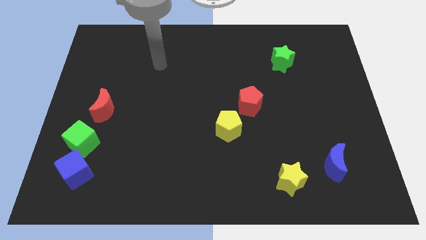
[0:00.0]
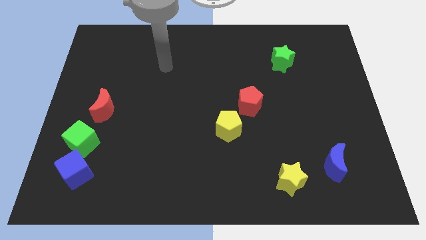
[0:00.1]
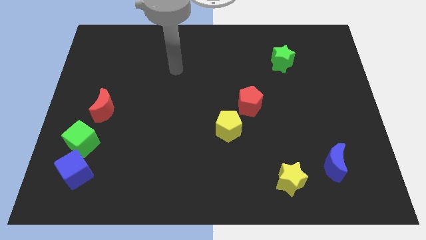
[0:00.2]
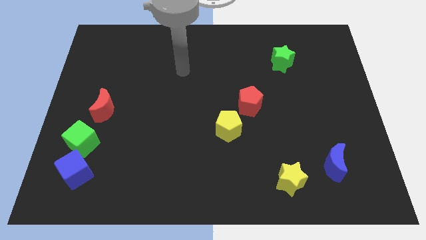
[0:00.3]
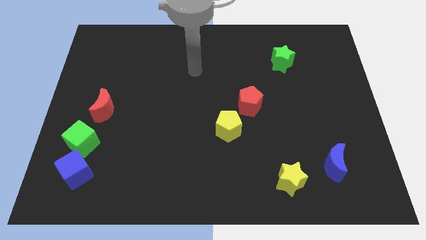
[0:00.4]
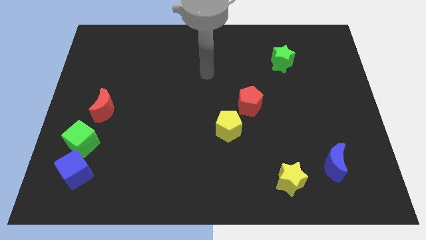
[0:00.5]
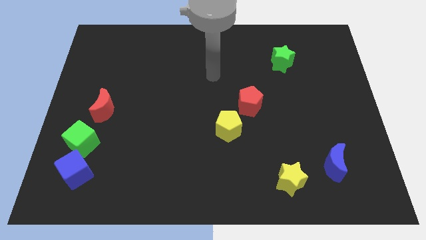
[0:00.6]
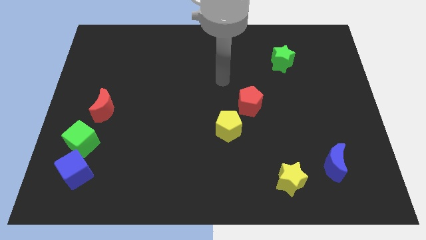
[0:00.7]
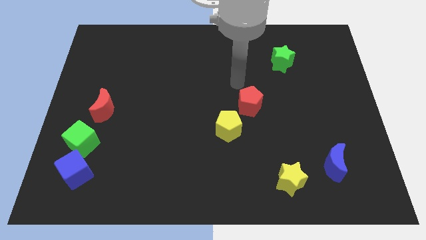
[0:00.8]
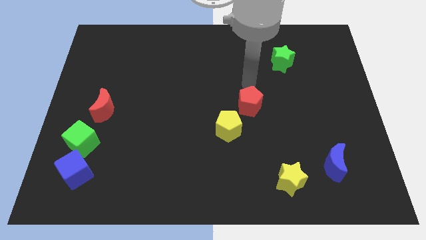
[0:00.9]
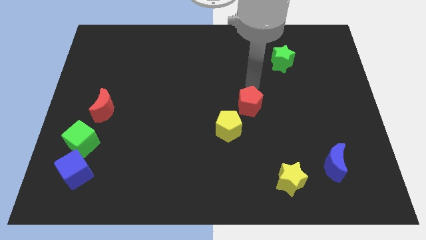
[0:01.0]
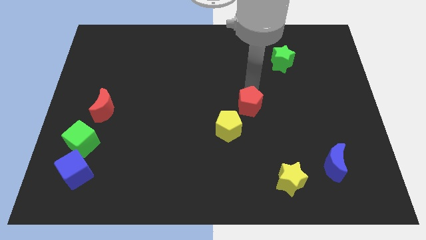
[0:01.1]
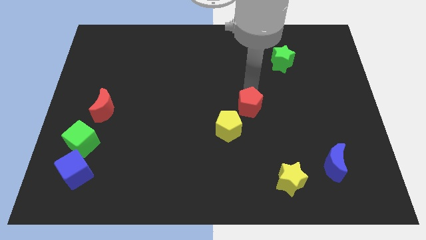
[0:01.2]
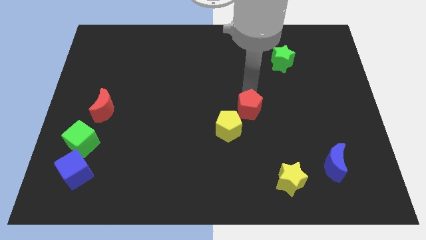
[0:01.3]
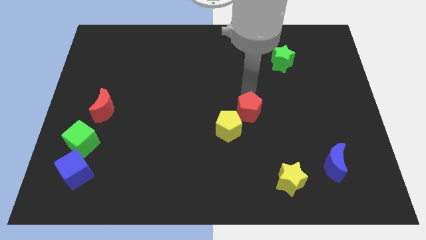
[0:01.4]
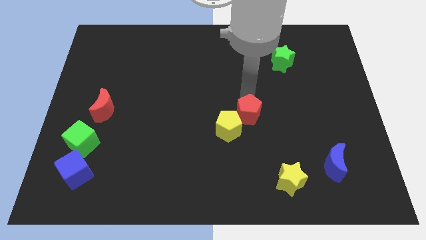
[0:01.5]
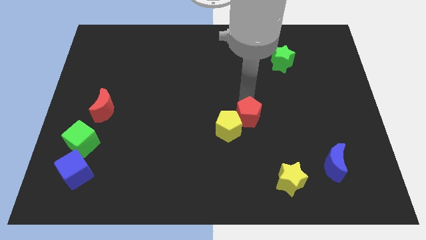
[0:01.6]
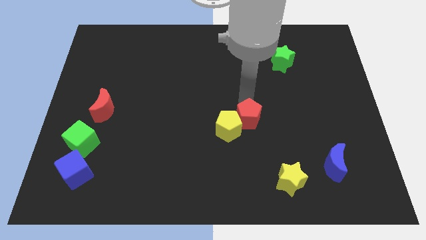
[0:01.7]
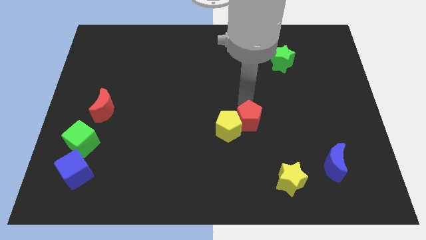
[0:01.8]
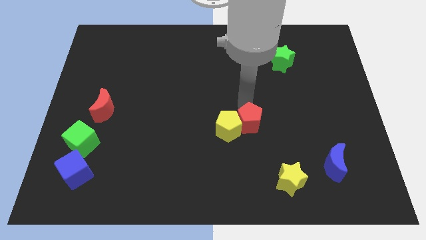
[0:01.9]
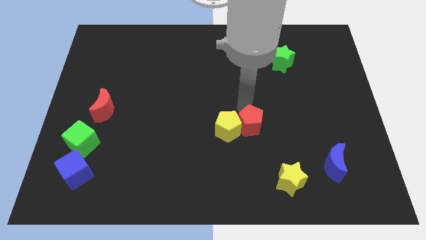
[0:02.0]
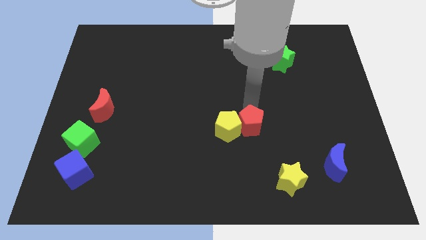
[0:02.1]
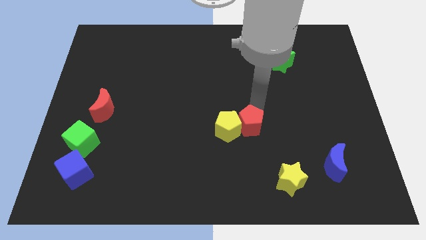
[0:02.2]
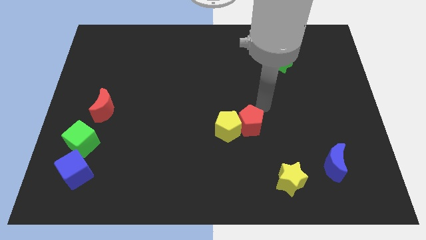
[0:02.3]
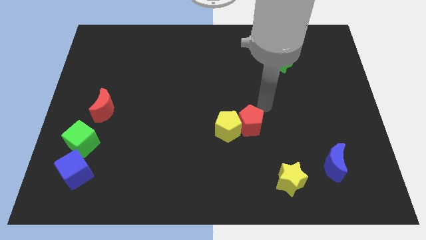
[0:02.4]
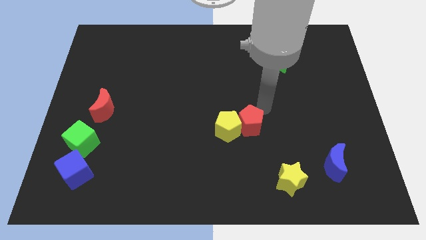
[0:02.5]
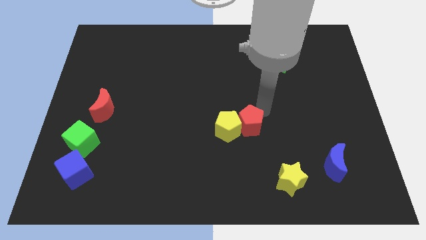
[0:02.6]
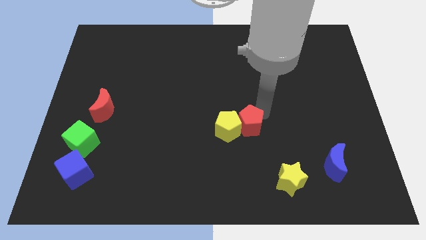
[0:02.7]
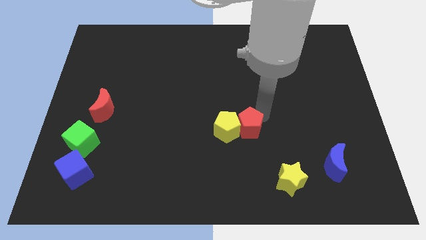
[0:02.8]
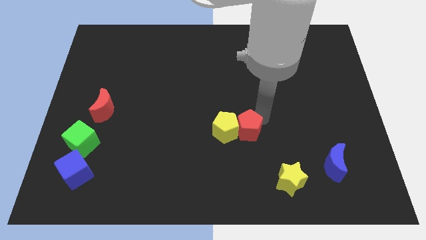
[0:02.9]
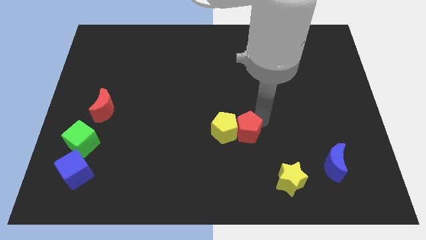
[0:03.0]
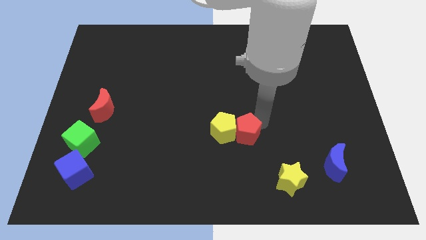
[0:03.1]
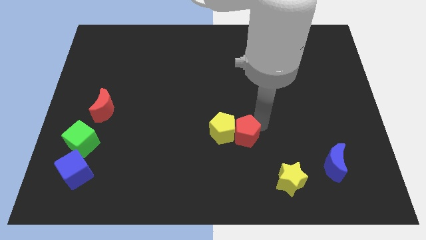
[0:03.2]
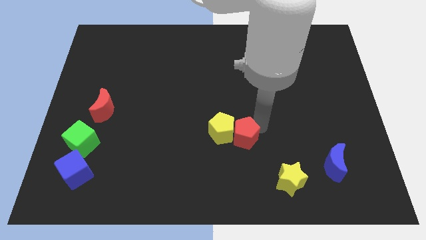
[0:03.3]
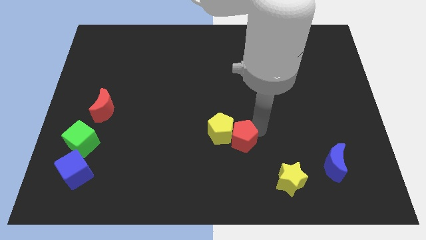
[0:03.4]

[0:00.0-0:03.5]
move the red pentagon a little downwards and then left

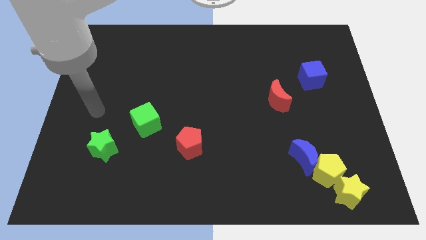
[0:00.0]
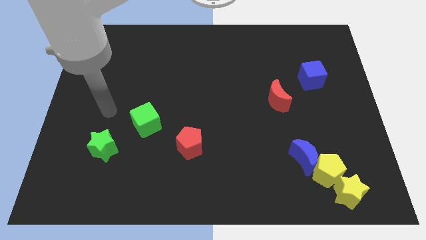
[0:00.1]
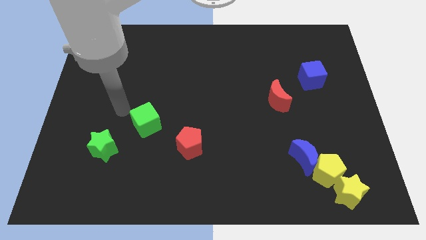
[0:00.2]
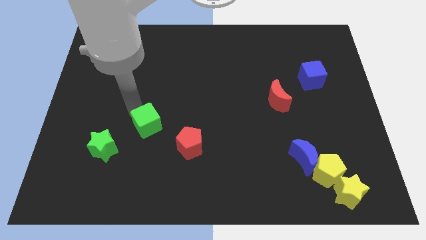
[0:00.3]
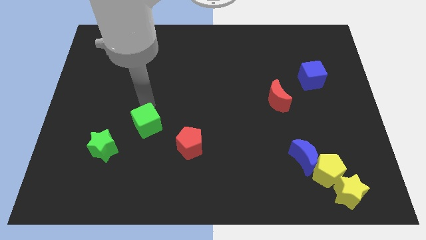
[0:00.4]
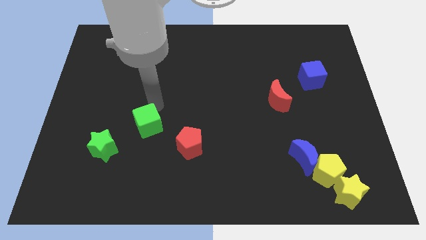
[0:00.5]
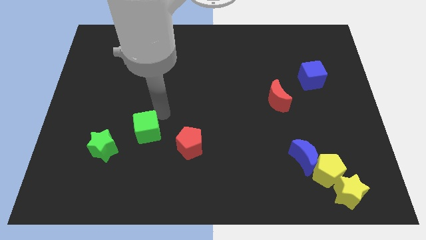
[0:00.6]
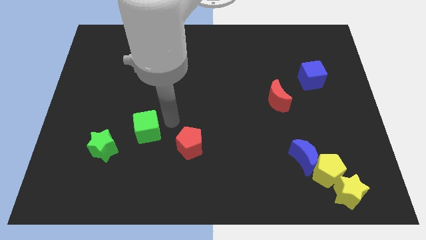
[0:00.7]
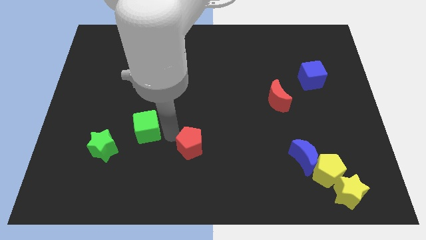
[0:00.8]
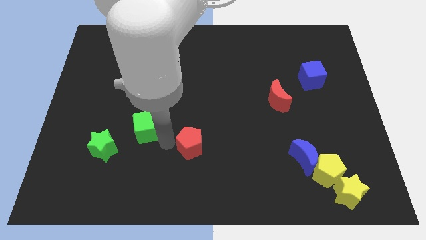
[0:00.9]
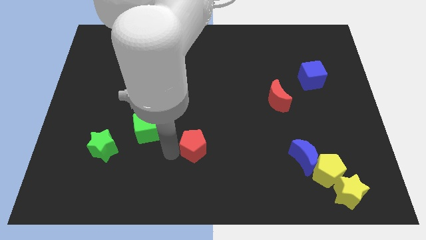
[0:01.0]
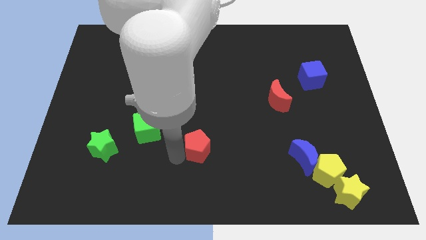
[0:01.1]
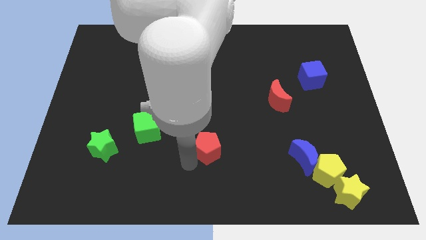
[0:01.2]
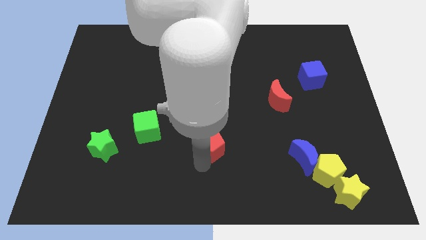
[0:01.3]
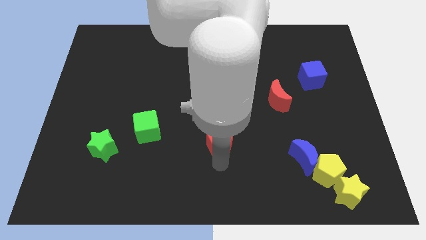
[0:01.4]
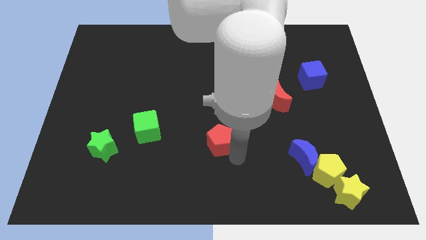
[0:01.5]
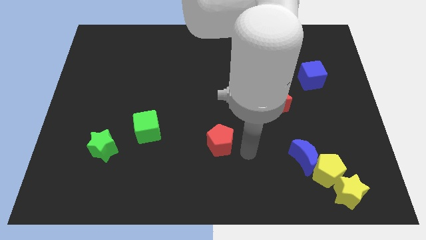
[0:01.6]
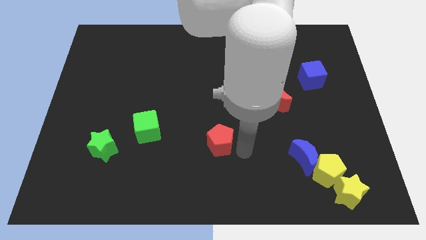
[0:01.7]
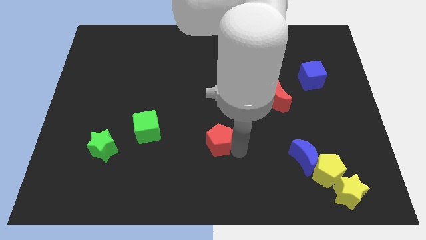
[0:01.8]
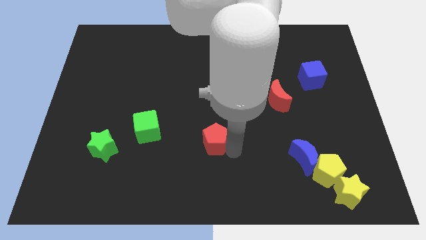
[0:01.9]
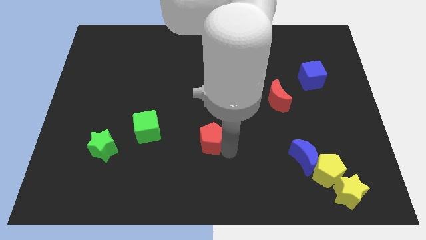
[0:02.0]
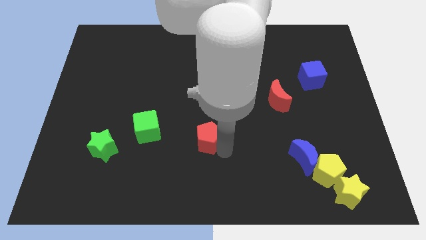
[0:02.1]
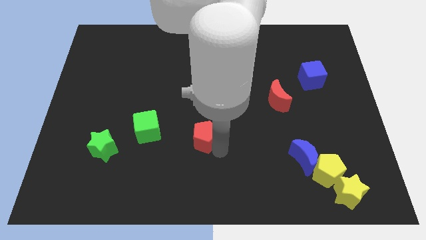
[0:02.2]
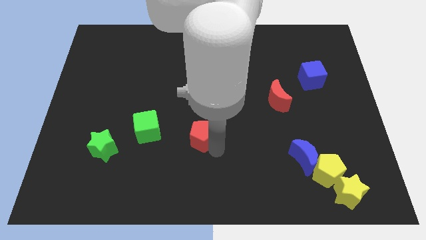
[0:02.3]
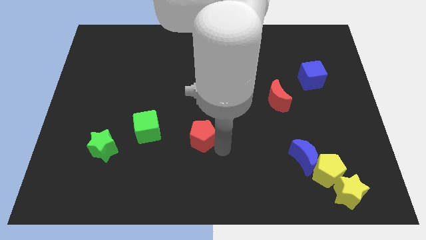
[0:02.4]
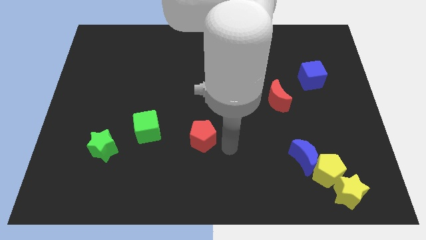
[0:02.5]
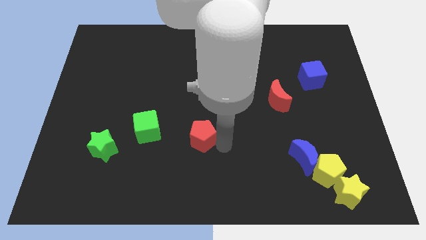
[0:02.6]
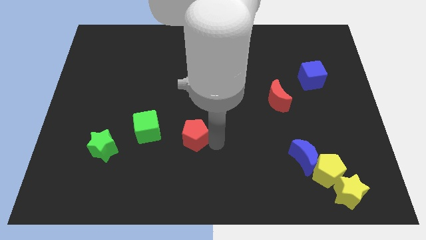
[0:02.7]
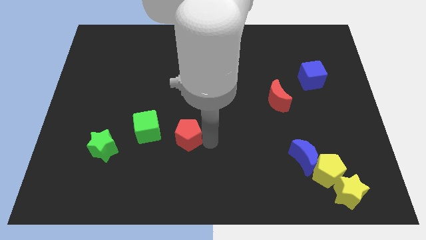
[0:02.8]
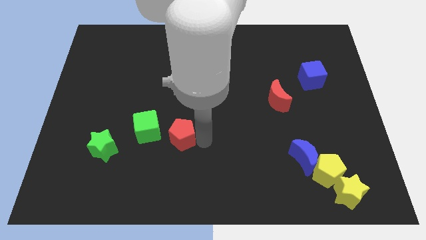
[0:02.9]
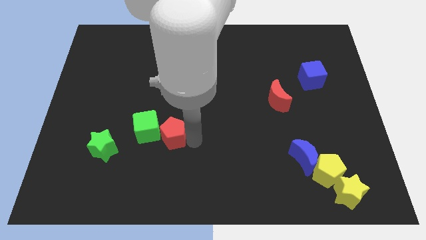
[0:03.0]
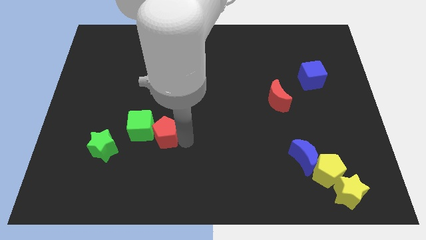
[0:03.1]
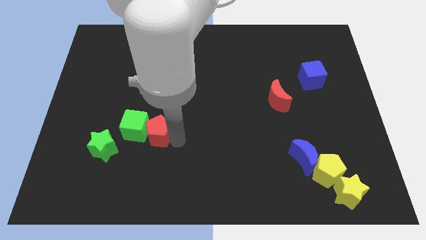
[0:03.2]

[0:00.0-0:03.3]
slightly push the red pentagon upwards and then to the left

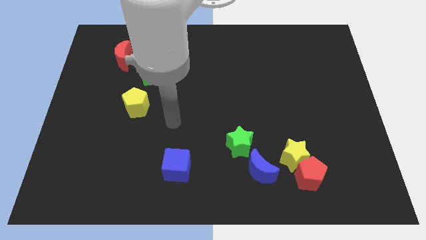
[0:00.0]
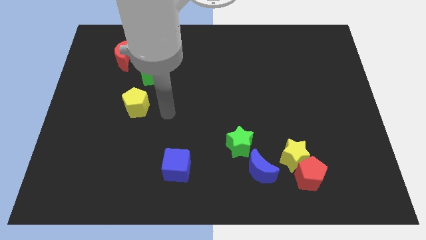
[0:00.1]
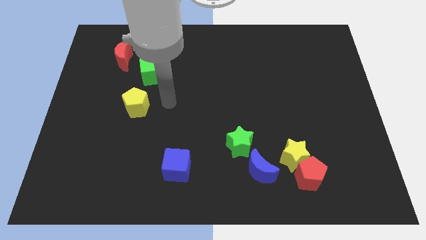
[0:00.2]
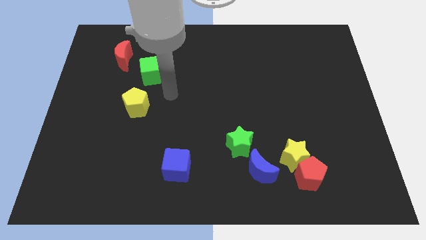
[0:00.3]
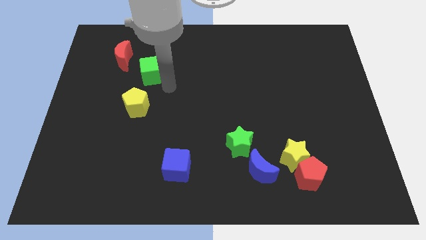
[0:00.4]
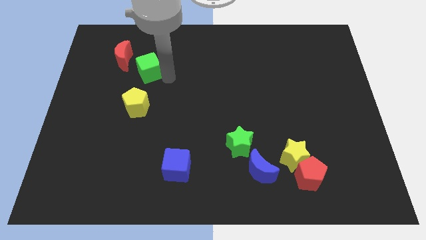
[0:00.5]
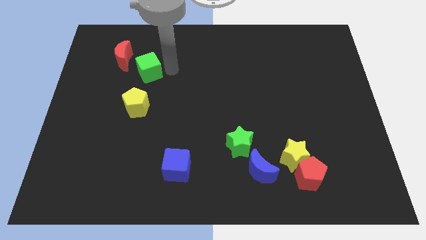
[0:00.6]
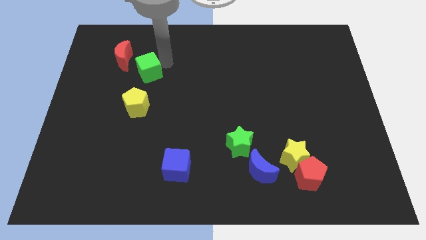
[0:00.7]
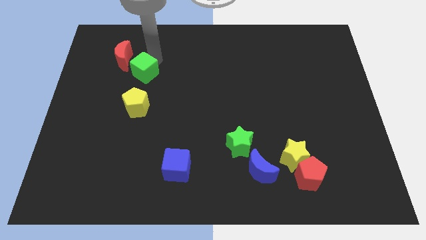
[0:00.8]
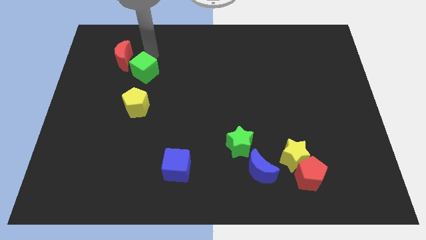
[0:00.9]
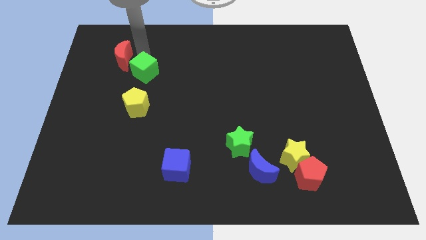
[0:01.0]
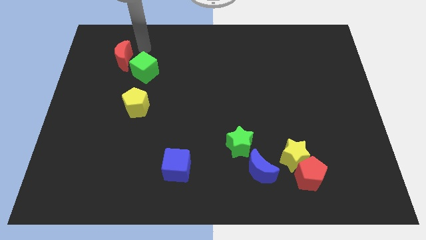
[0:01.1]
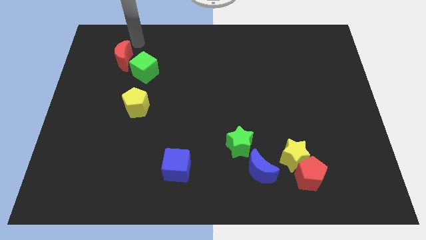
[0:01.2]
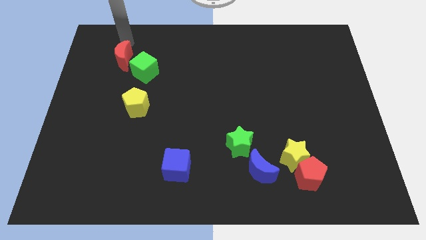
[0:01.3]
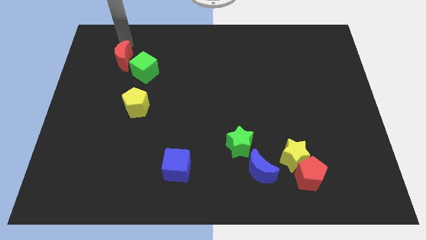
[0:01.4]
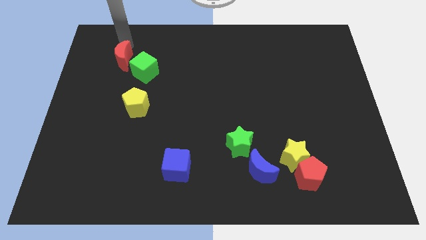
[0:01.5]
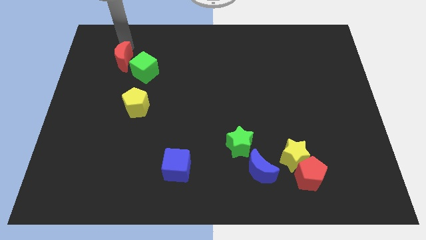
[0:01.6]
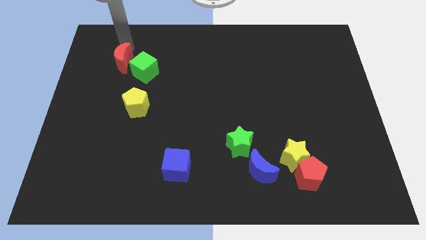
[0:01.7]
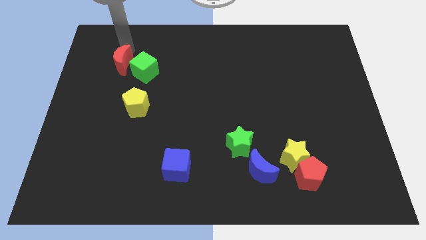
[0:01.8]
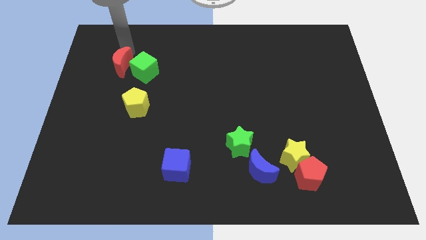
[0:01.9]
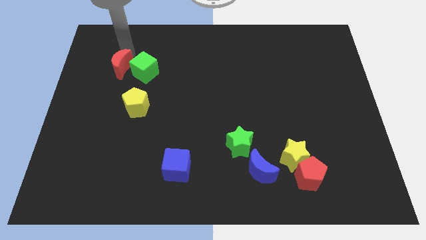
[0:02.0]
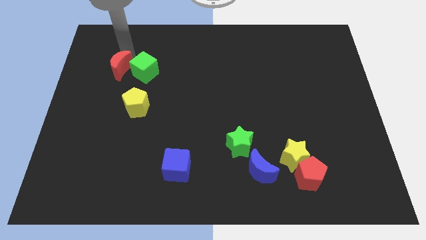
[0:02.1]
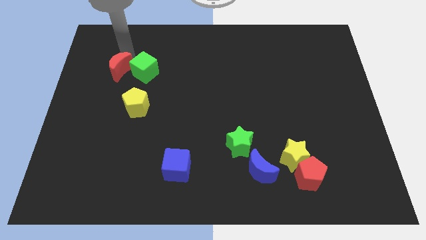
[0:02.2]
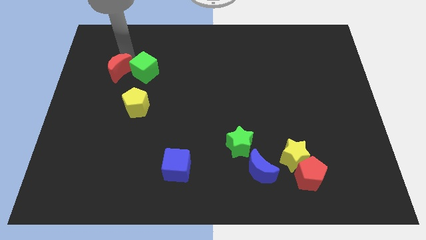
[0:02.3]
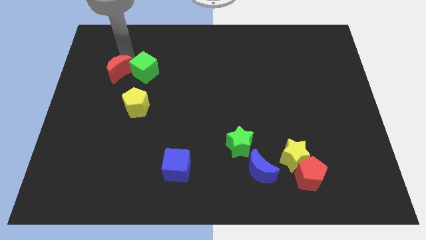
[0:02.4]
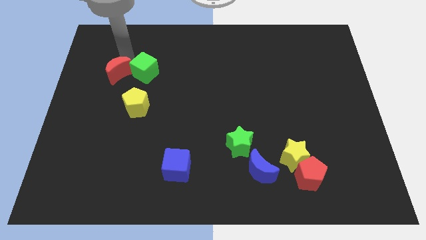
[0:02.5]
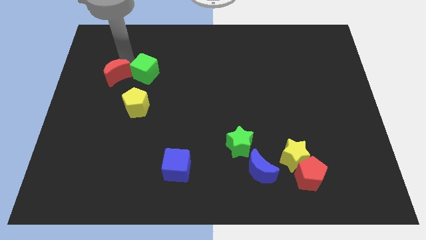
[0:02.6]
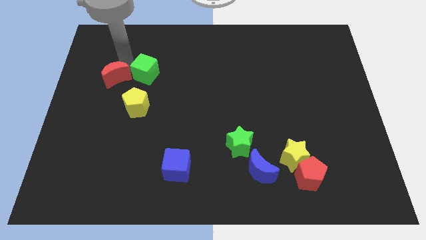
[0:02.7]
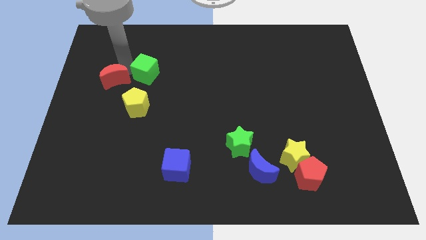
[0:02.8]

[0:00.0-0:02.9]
slide the red moon down a little
